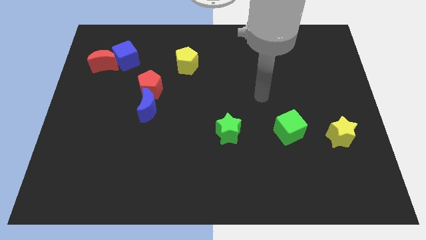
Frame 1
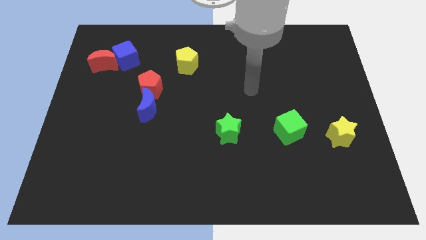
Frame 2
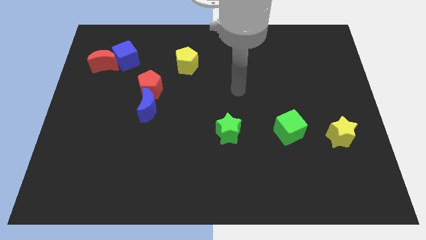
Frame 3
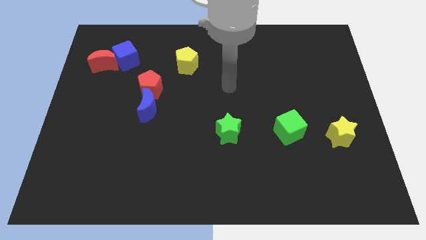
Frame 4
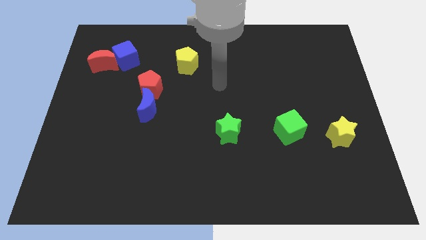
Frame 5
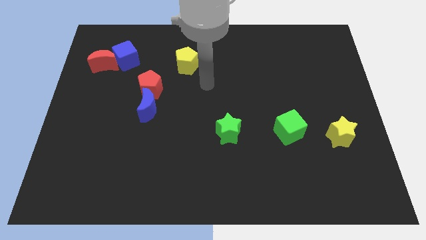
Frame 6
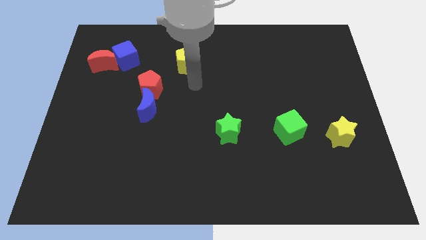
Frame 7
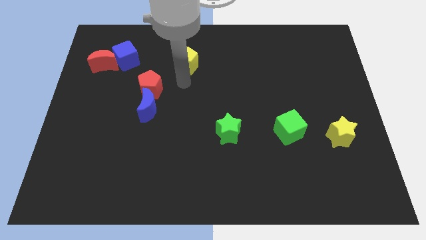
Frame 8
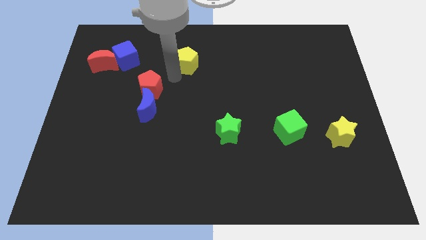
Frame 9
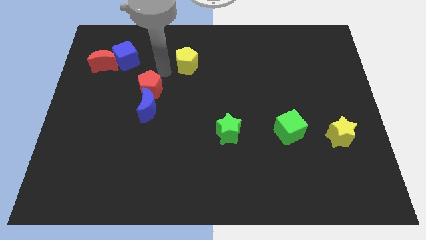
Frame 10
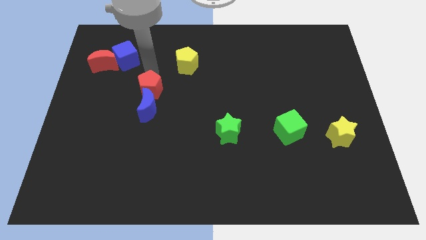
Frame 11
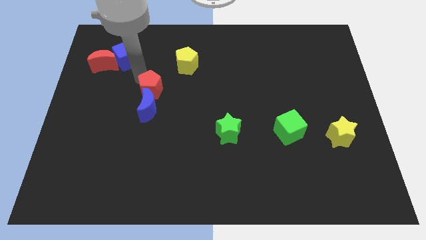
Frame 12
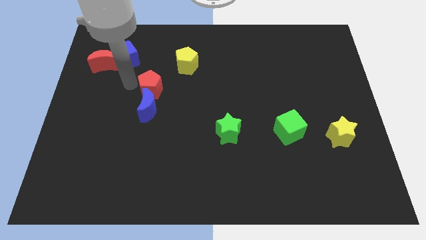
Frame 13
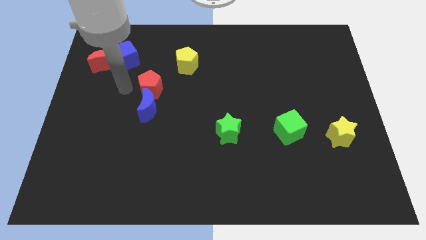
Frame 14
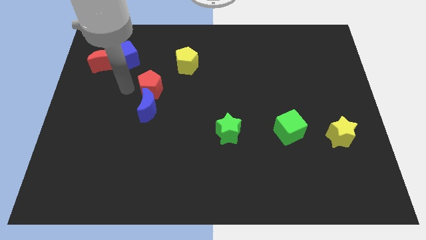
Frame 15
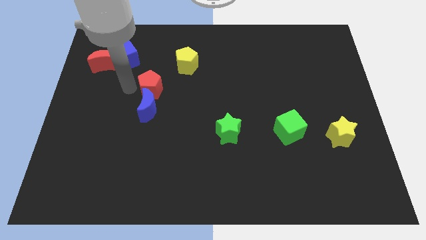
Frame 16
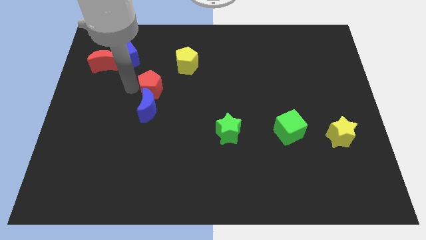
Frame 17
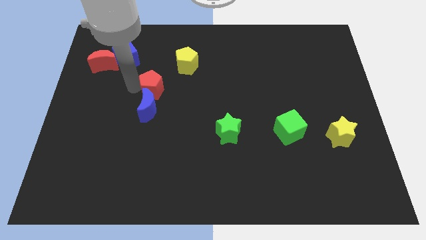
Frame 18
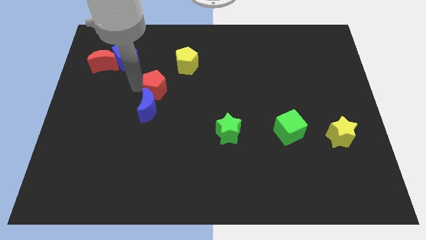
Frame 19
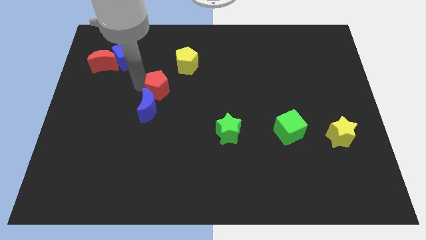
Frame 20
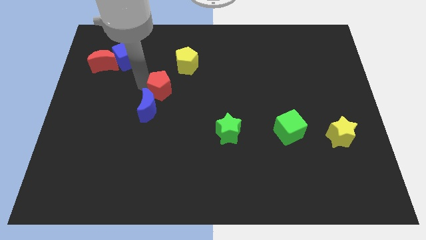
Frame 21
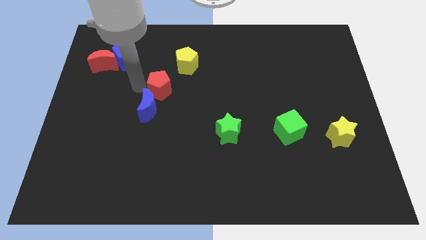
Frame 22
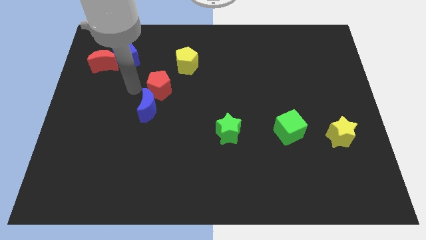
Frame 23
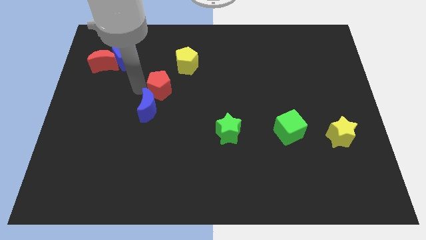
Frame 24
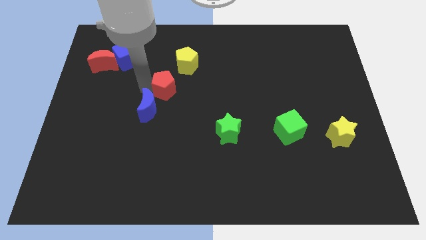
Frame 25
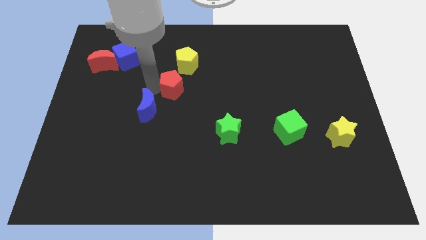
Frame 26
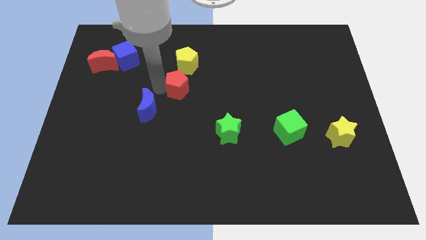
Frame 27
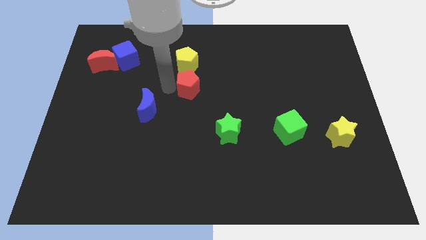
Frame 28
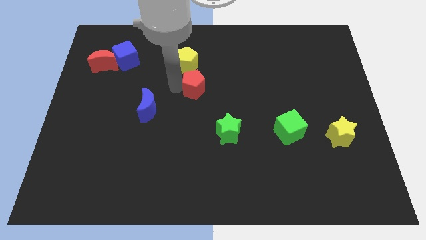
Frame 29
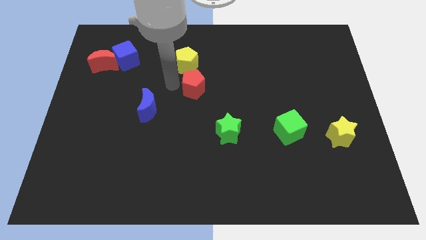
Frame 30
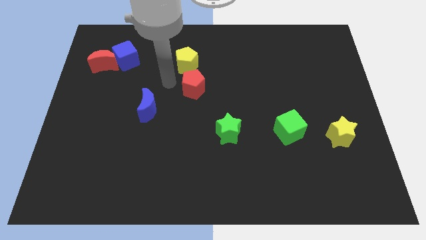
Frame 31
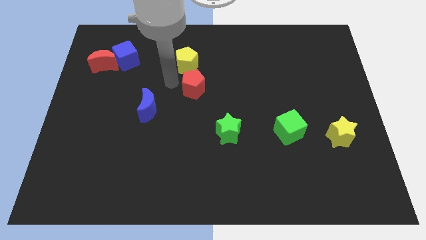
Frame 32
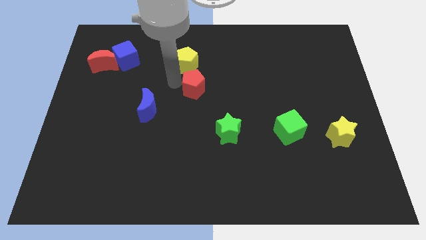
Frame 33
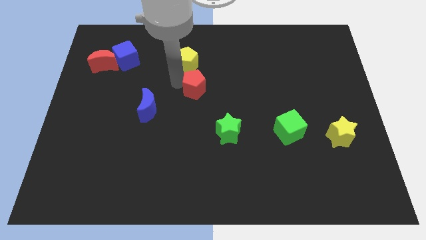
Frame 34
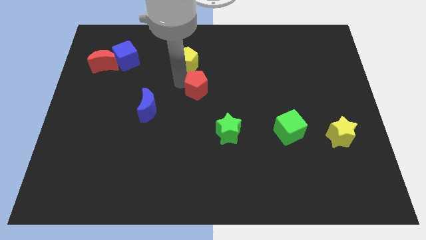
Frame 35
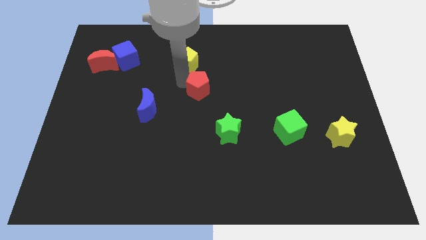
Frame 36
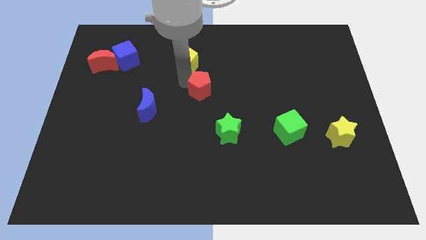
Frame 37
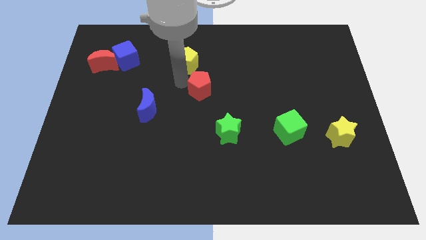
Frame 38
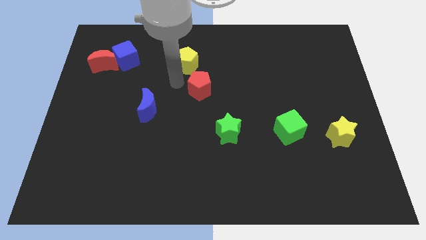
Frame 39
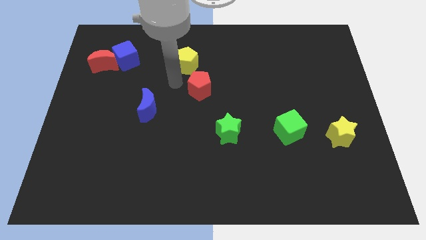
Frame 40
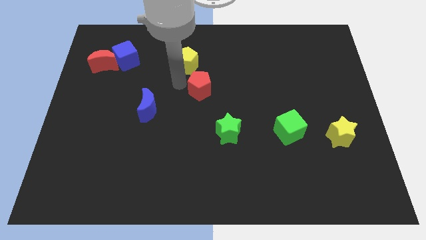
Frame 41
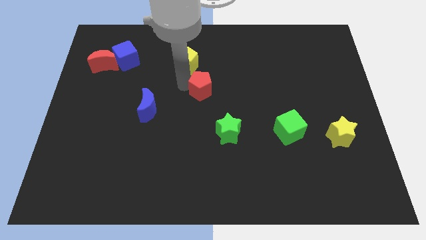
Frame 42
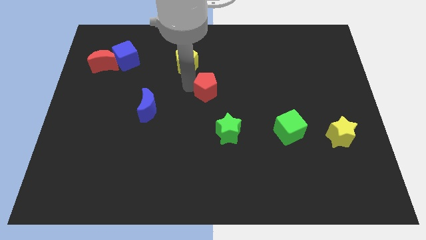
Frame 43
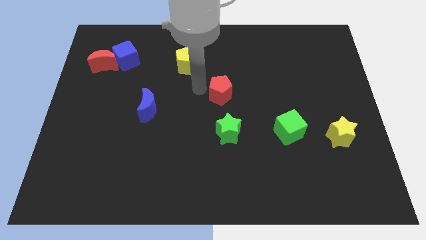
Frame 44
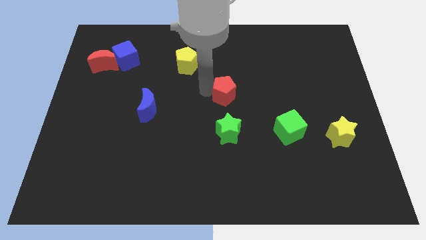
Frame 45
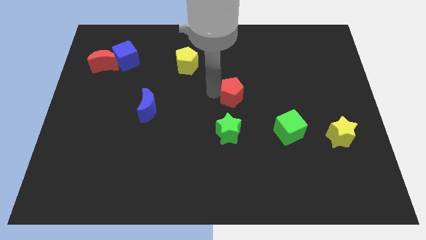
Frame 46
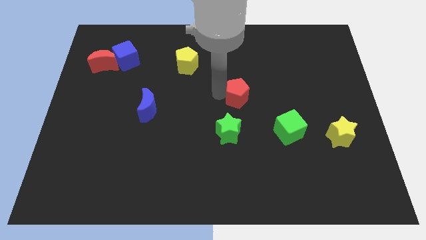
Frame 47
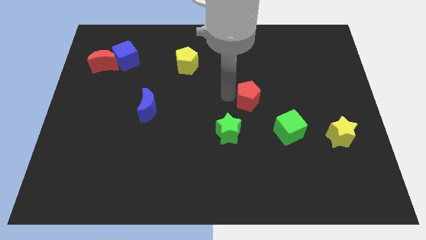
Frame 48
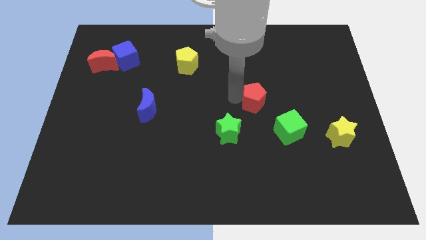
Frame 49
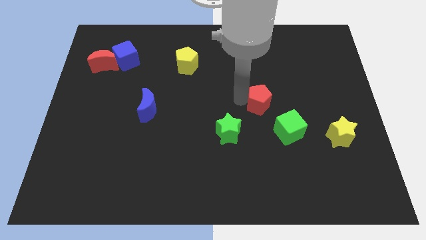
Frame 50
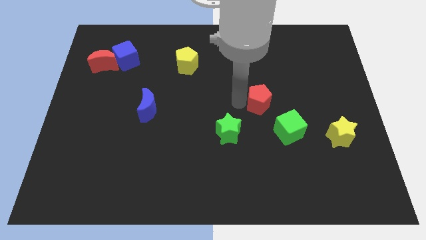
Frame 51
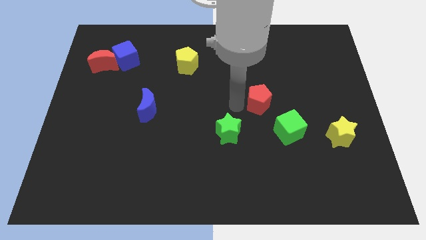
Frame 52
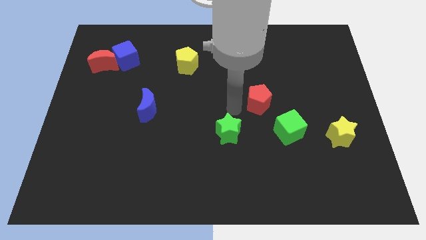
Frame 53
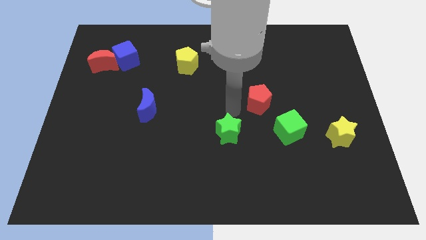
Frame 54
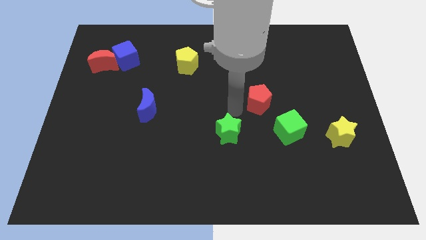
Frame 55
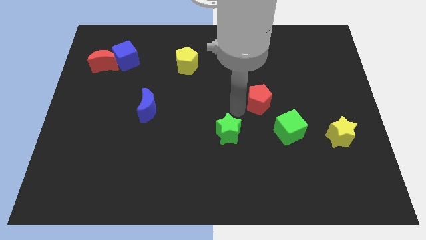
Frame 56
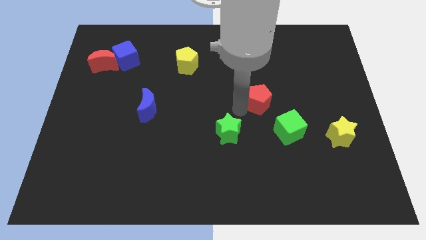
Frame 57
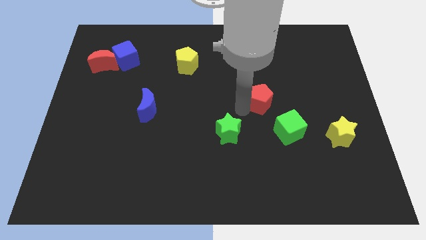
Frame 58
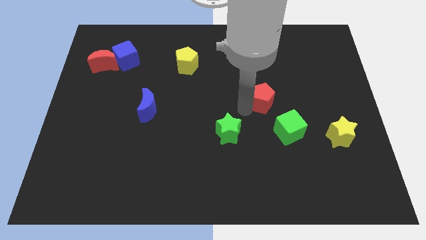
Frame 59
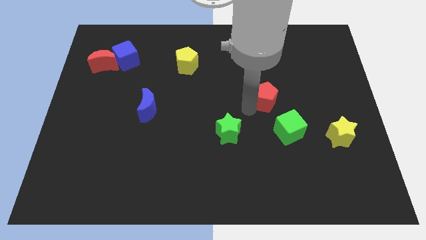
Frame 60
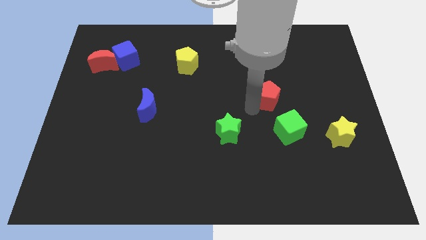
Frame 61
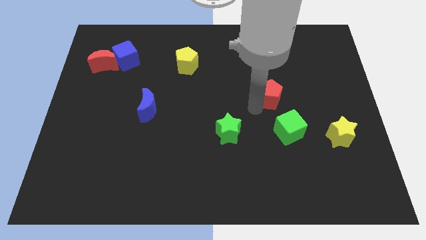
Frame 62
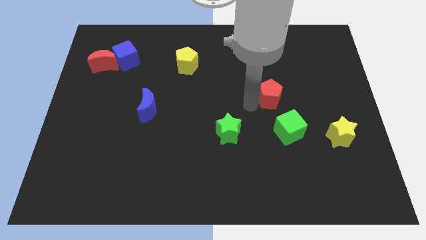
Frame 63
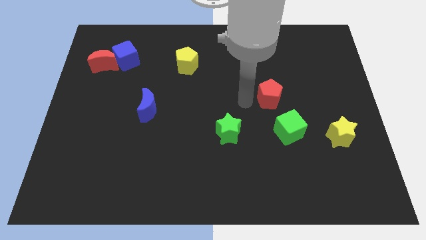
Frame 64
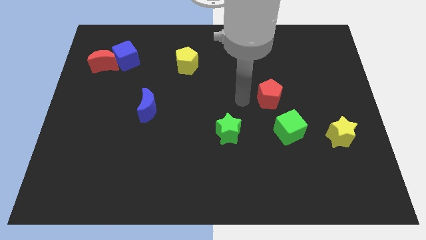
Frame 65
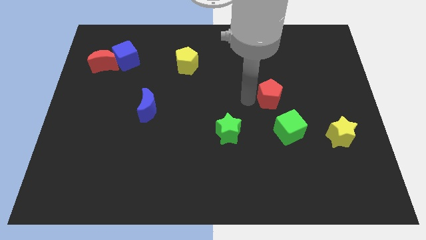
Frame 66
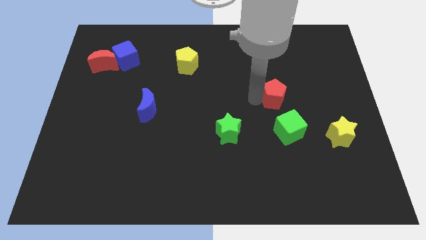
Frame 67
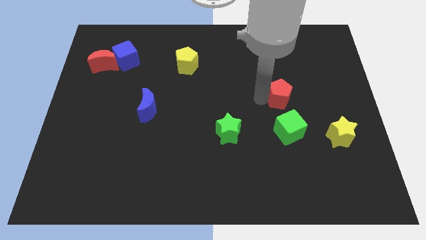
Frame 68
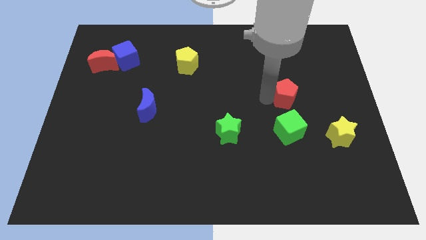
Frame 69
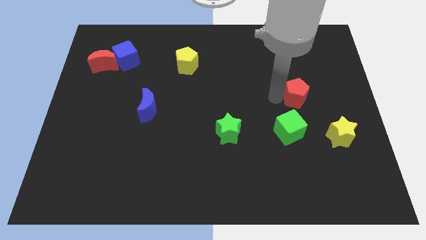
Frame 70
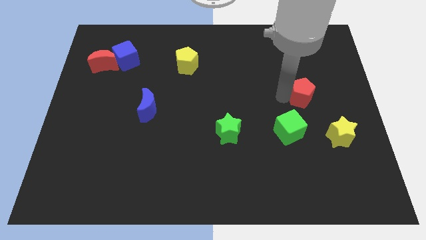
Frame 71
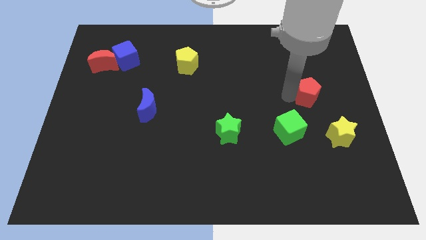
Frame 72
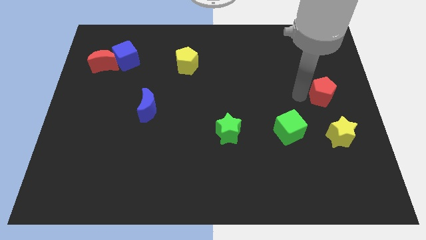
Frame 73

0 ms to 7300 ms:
move the red pentagon to the right side of the board
